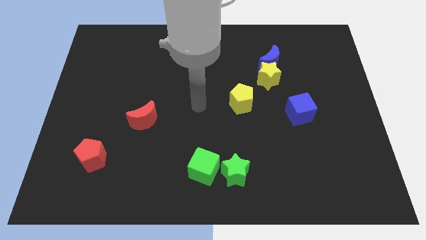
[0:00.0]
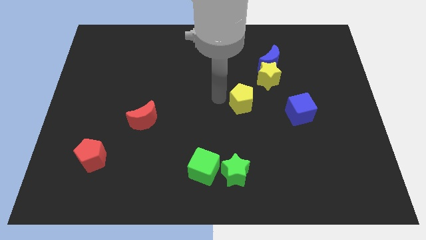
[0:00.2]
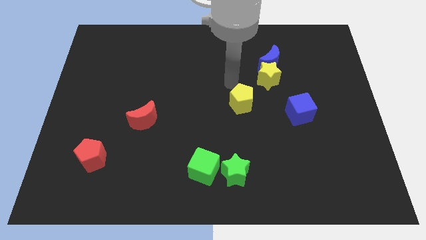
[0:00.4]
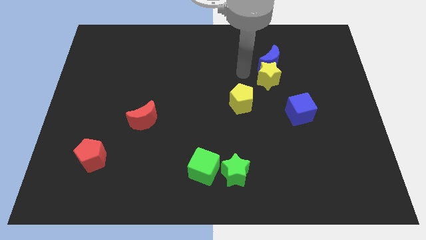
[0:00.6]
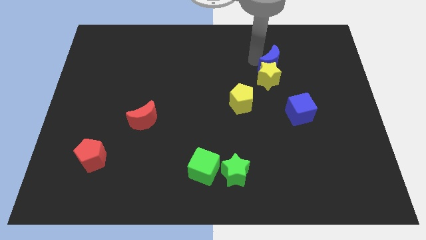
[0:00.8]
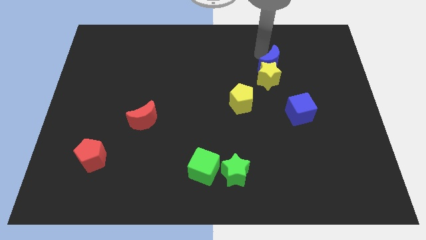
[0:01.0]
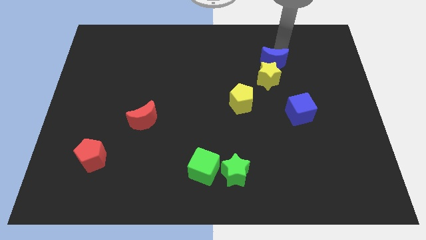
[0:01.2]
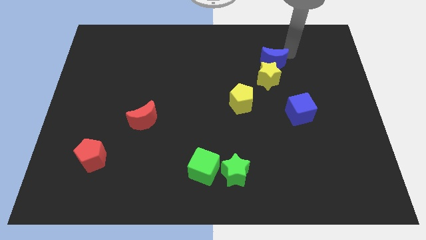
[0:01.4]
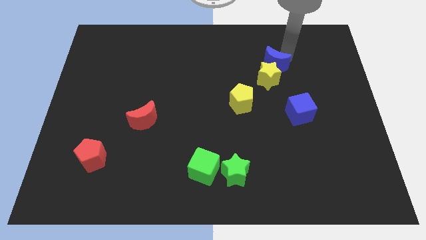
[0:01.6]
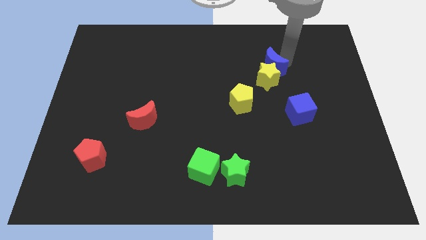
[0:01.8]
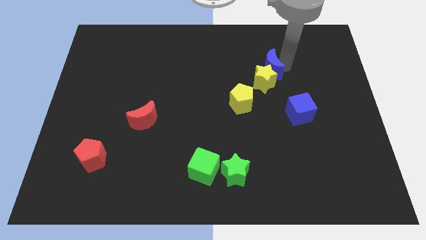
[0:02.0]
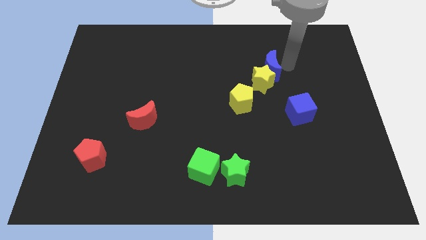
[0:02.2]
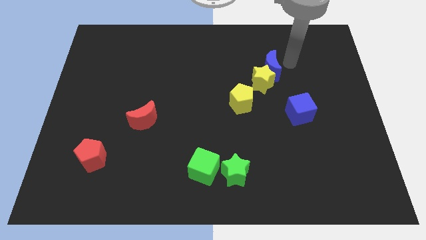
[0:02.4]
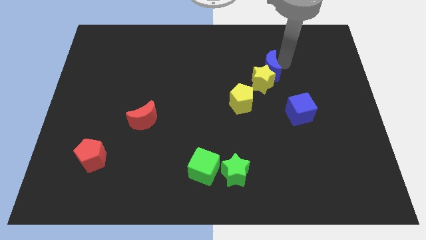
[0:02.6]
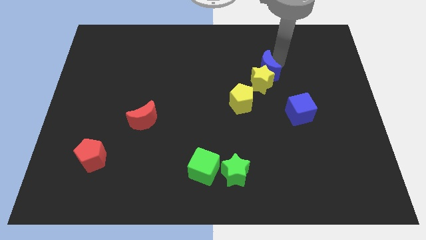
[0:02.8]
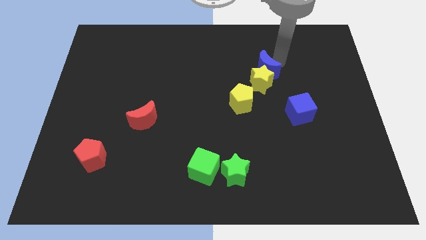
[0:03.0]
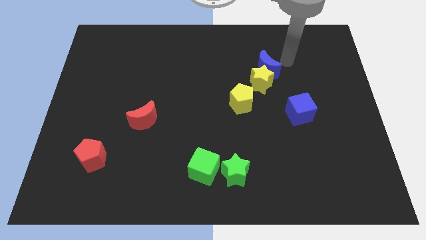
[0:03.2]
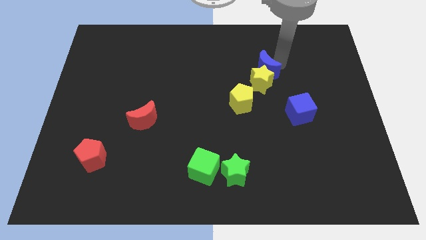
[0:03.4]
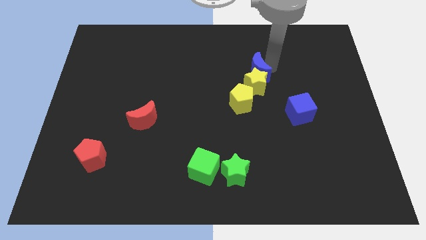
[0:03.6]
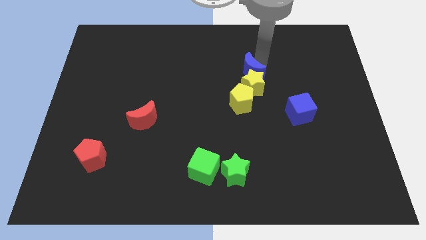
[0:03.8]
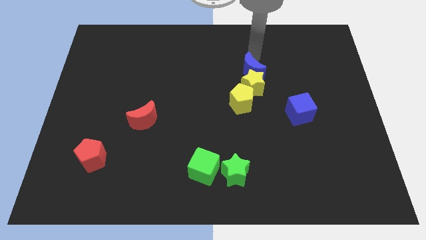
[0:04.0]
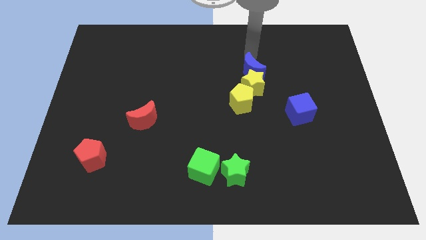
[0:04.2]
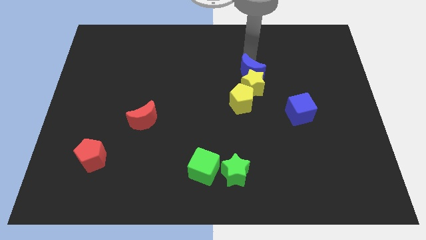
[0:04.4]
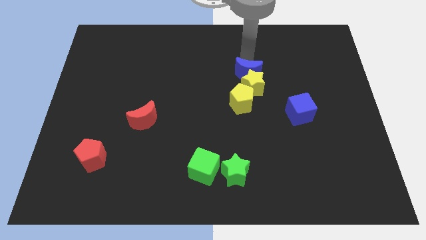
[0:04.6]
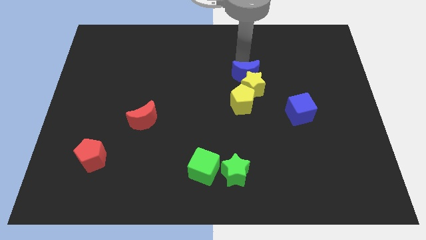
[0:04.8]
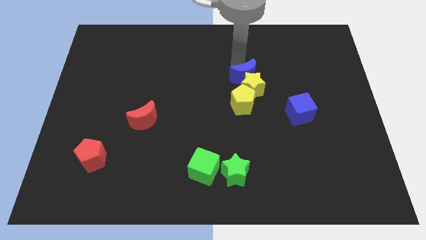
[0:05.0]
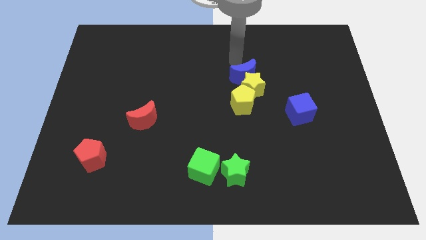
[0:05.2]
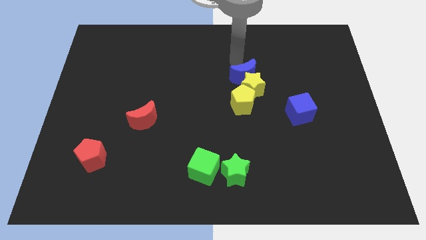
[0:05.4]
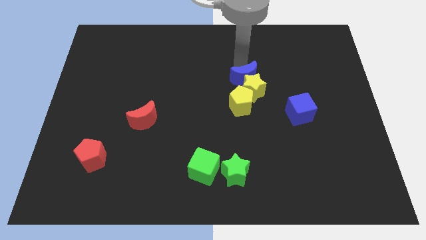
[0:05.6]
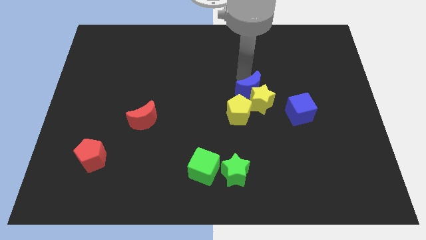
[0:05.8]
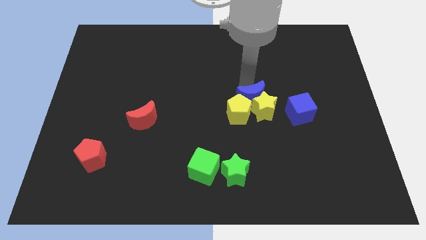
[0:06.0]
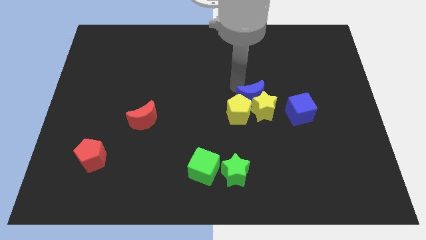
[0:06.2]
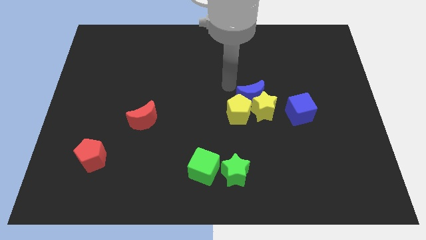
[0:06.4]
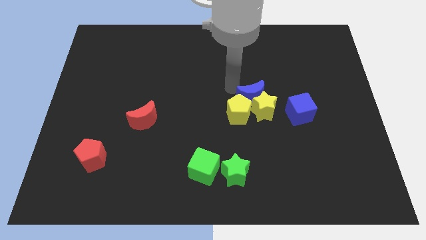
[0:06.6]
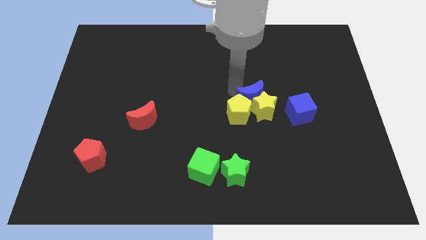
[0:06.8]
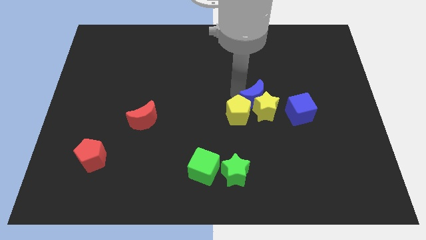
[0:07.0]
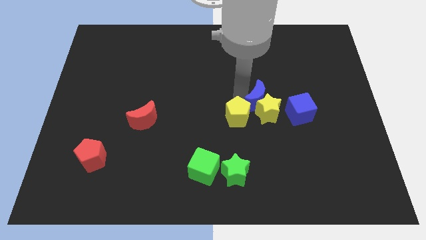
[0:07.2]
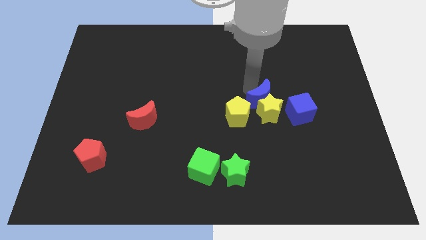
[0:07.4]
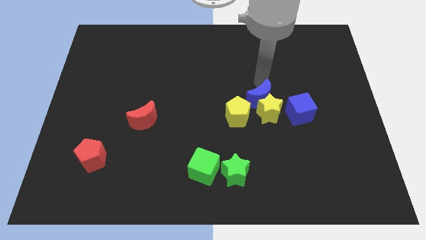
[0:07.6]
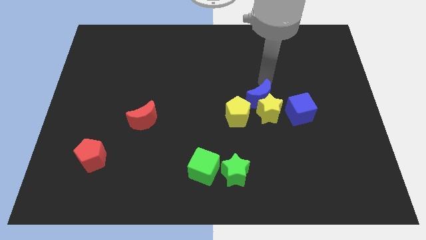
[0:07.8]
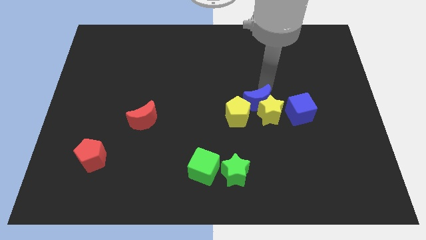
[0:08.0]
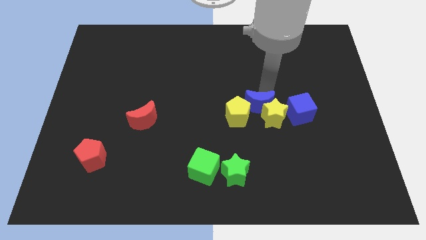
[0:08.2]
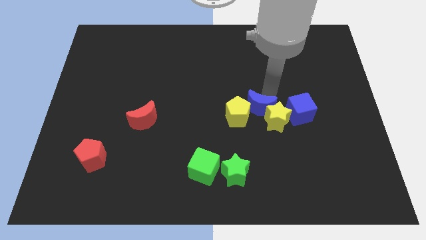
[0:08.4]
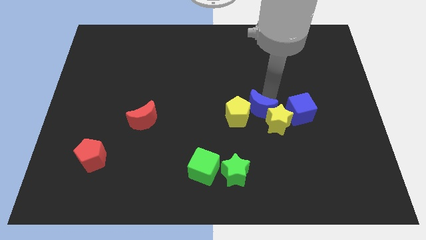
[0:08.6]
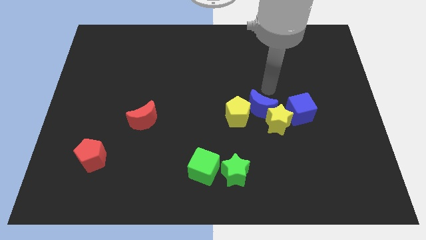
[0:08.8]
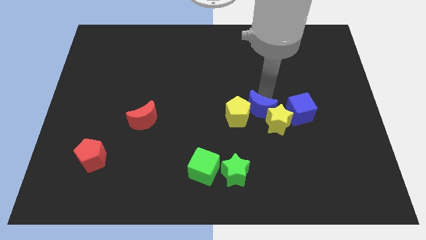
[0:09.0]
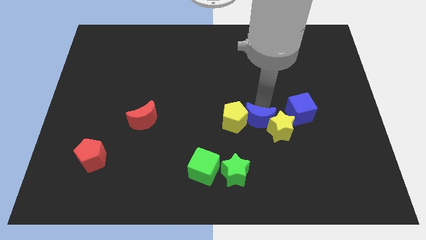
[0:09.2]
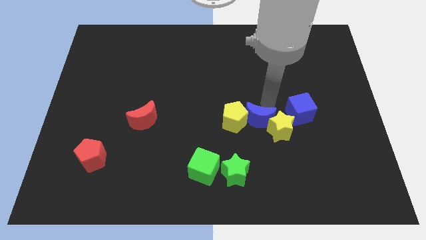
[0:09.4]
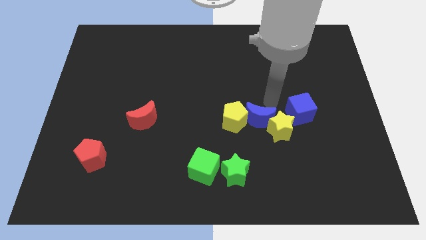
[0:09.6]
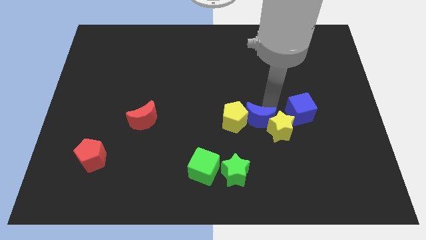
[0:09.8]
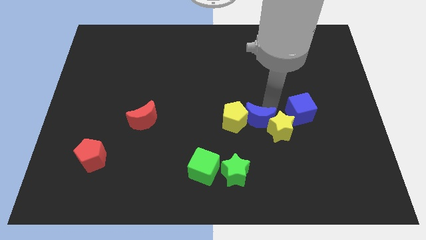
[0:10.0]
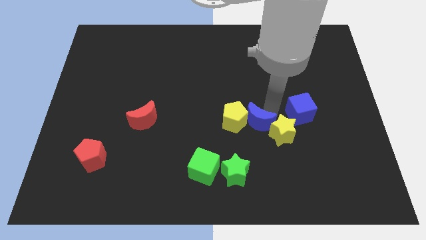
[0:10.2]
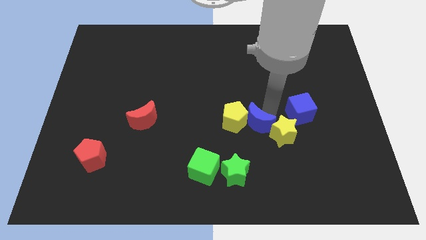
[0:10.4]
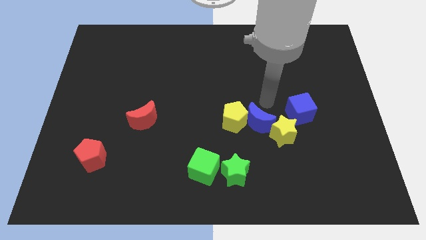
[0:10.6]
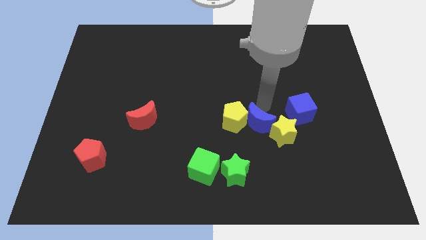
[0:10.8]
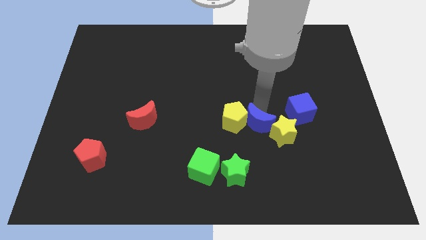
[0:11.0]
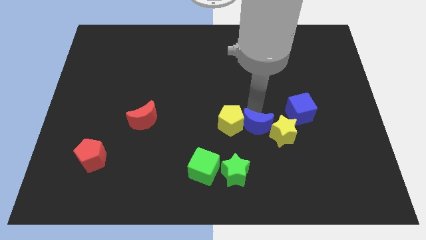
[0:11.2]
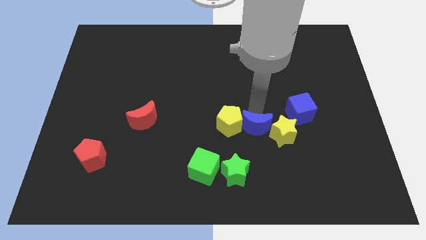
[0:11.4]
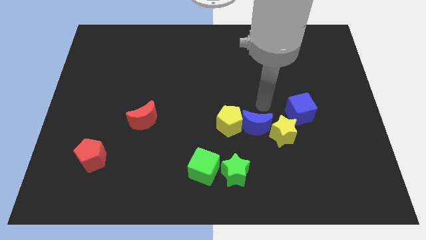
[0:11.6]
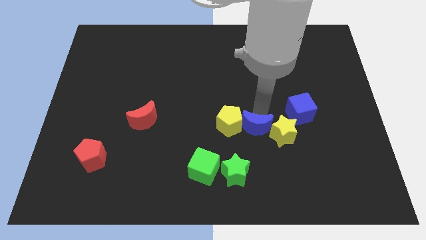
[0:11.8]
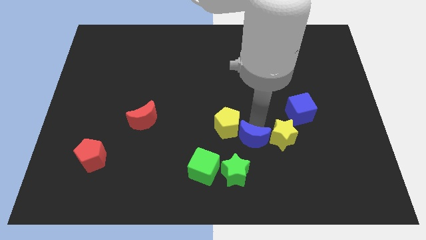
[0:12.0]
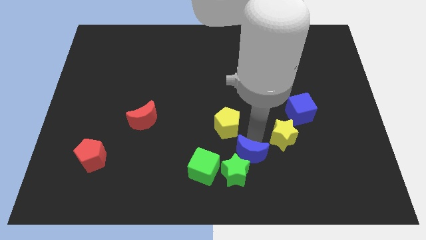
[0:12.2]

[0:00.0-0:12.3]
move the blue moon next to the green star

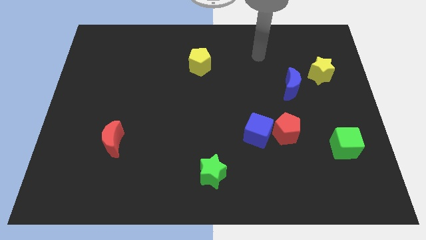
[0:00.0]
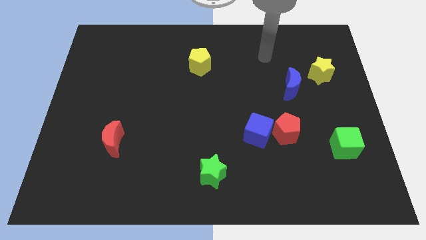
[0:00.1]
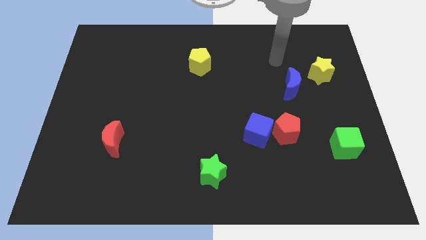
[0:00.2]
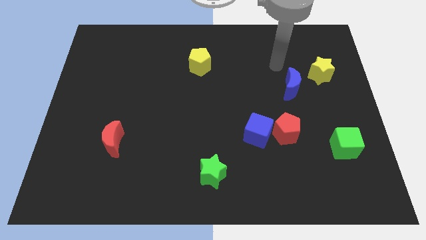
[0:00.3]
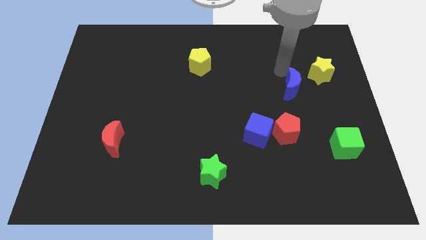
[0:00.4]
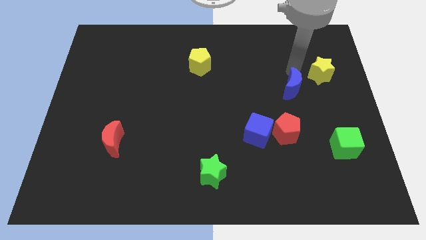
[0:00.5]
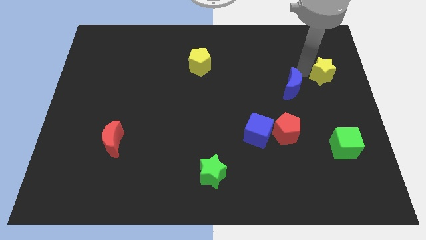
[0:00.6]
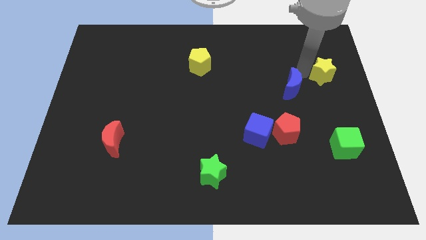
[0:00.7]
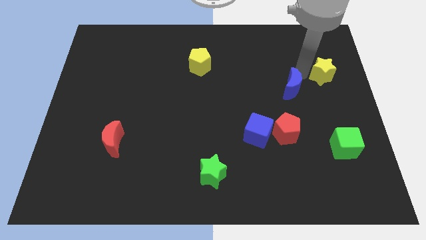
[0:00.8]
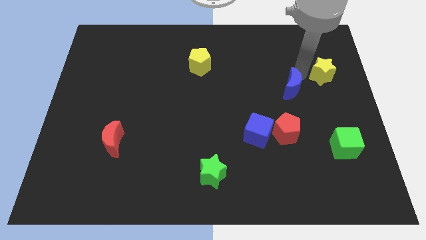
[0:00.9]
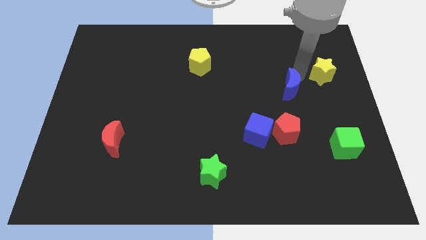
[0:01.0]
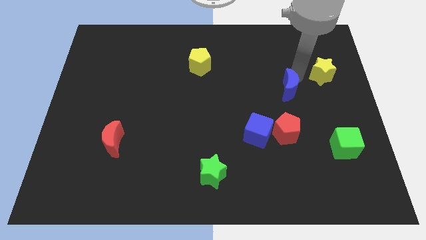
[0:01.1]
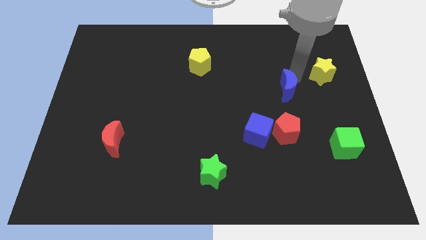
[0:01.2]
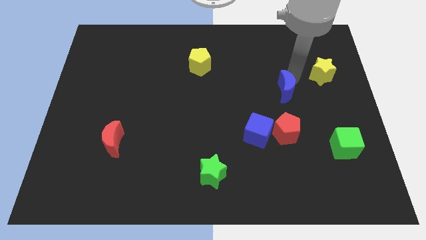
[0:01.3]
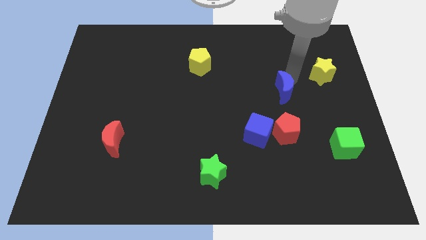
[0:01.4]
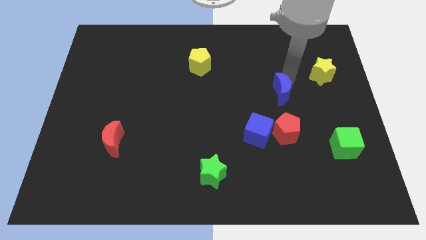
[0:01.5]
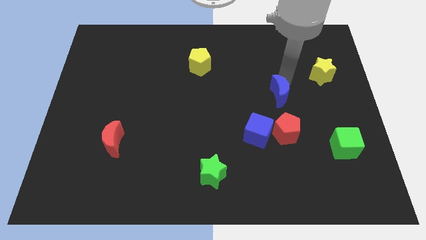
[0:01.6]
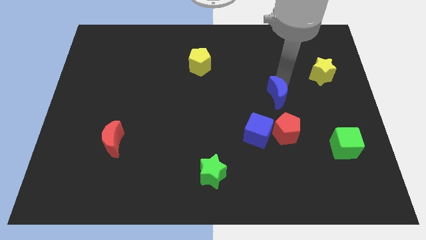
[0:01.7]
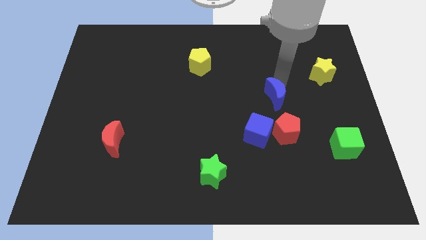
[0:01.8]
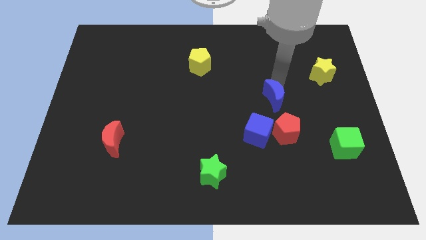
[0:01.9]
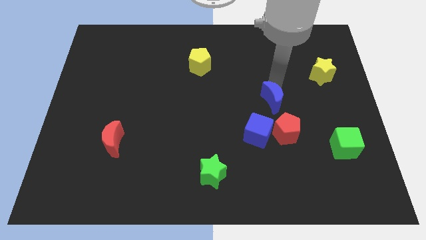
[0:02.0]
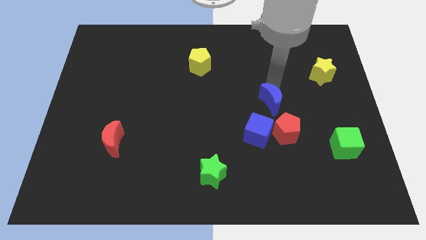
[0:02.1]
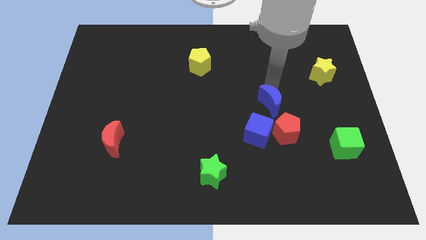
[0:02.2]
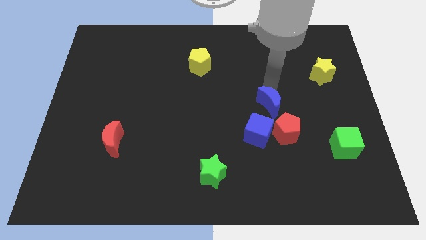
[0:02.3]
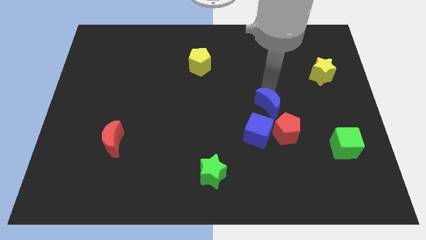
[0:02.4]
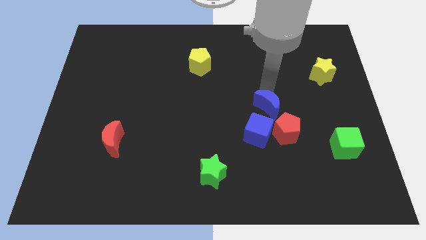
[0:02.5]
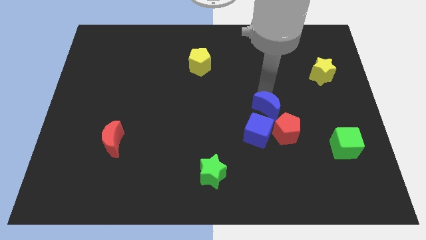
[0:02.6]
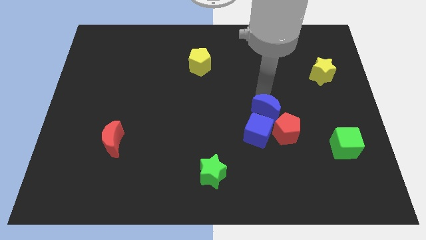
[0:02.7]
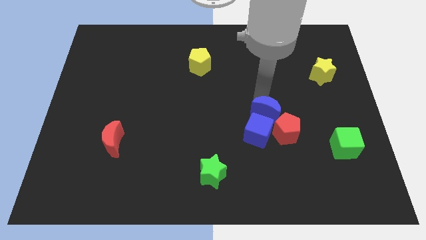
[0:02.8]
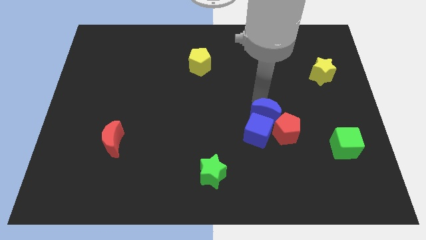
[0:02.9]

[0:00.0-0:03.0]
slide the blue moon to the blue cube
